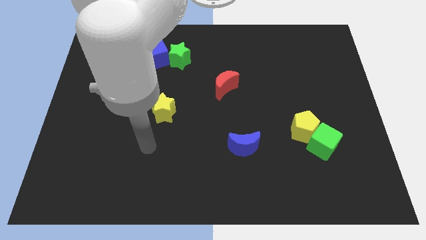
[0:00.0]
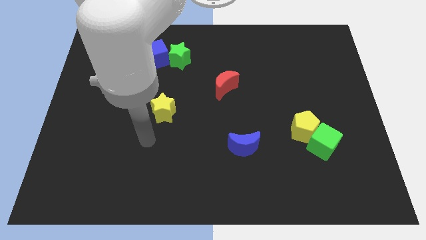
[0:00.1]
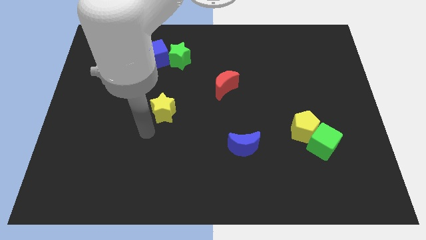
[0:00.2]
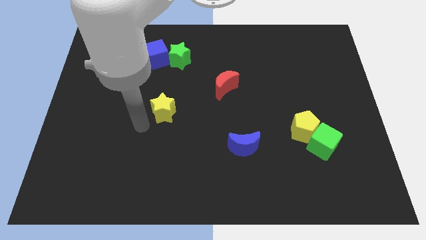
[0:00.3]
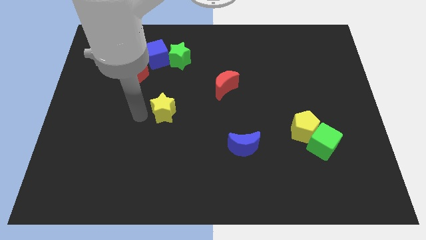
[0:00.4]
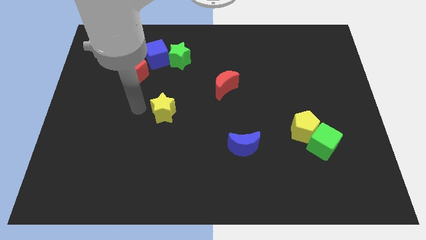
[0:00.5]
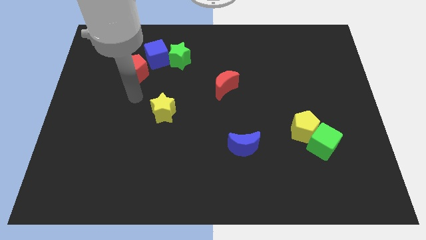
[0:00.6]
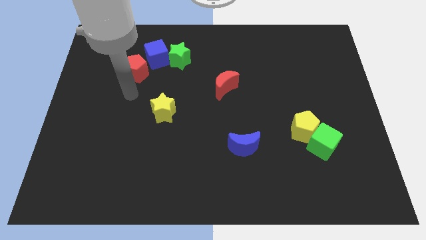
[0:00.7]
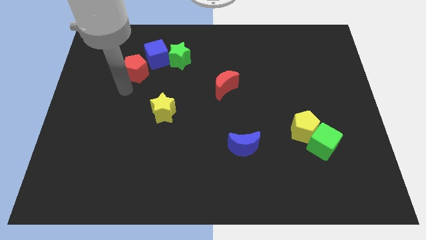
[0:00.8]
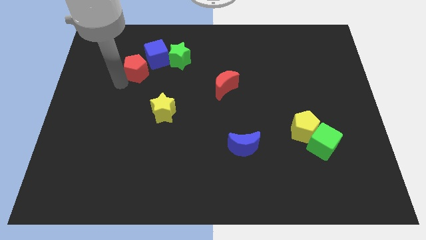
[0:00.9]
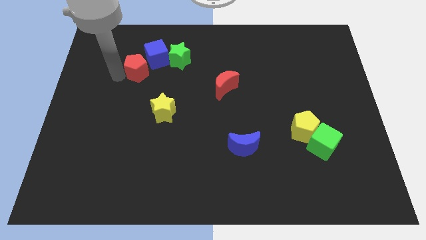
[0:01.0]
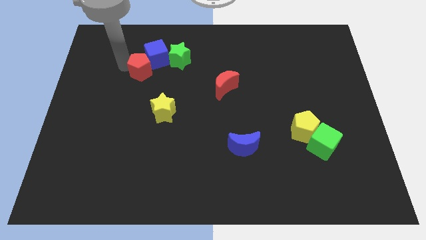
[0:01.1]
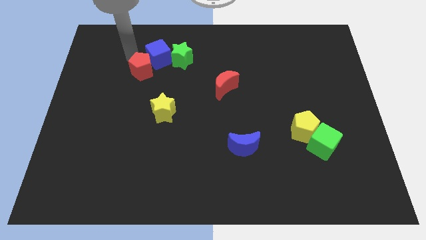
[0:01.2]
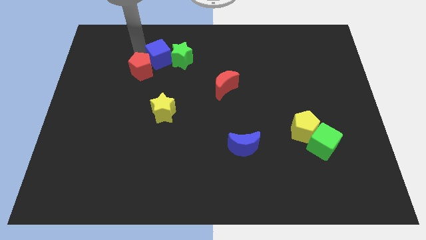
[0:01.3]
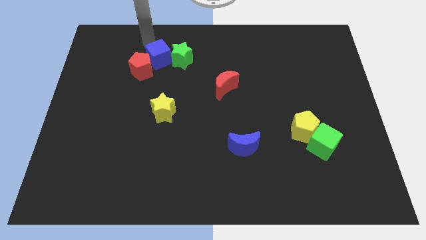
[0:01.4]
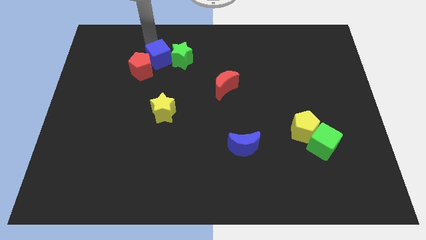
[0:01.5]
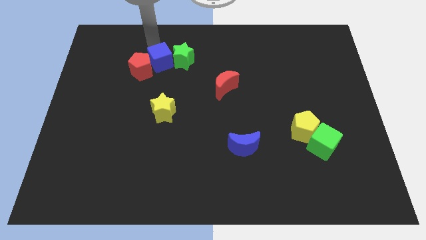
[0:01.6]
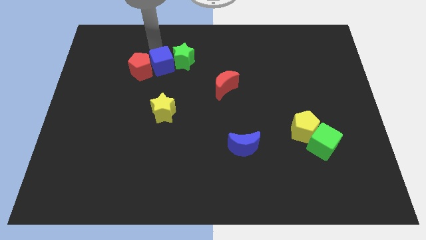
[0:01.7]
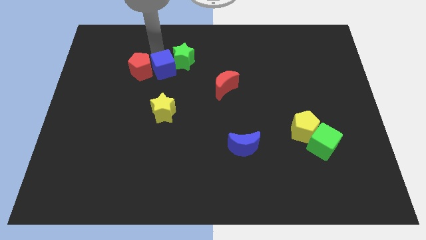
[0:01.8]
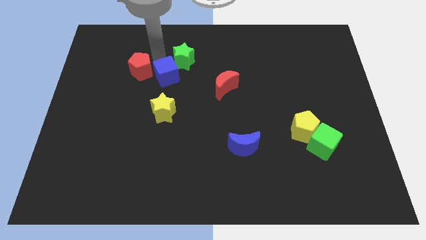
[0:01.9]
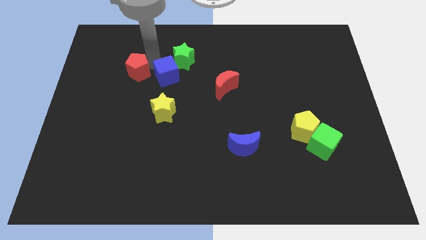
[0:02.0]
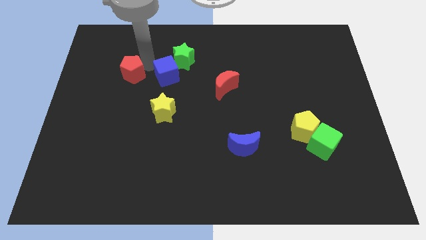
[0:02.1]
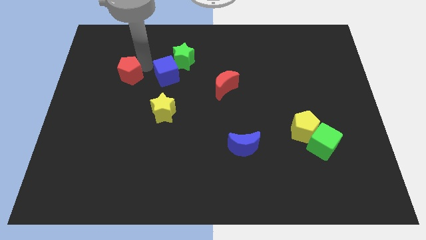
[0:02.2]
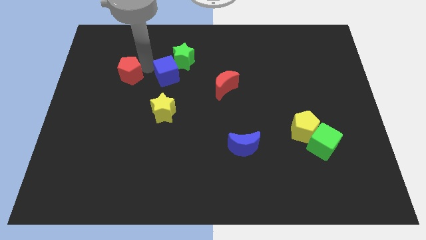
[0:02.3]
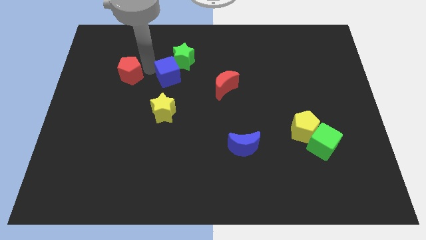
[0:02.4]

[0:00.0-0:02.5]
slightly push the blue cube diagonally downwards and to the right

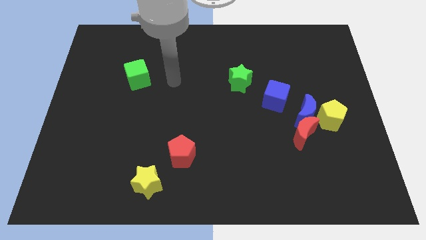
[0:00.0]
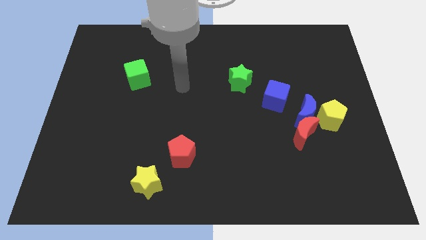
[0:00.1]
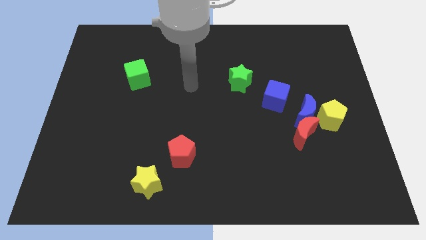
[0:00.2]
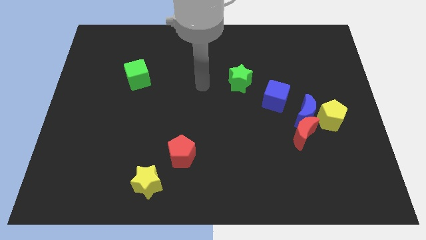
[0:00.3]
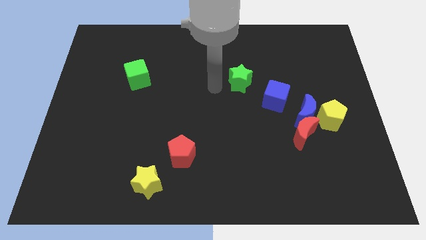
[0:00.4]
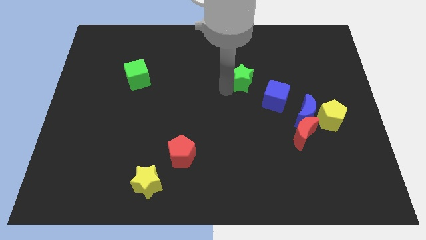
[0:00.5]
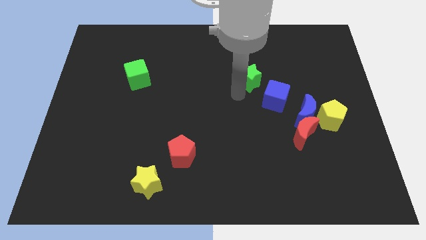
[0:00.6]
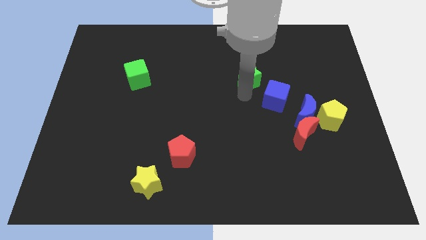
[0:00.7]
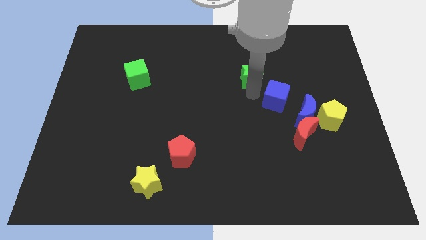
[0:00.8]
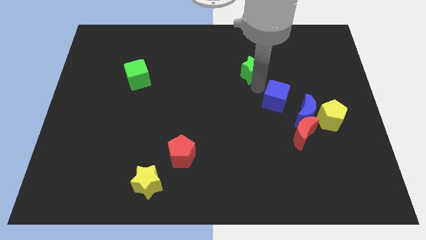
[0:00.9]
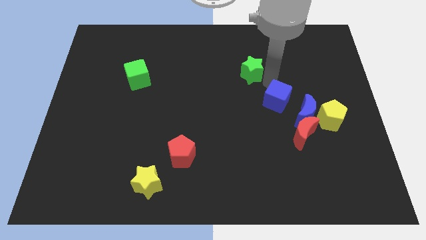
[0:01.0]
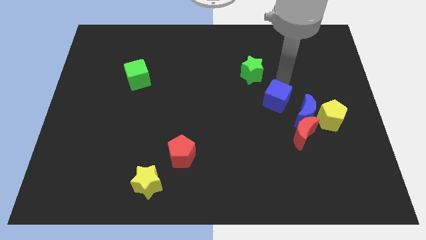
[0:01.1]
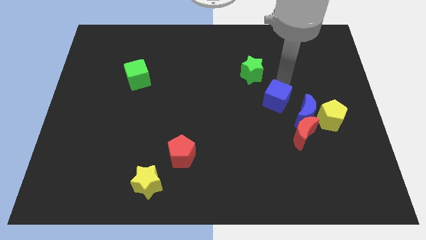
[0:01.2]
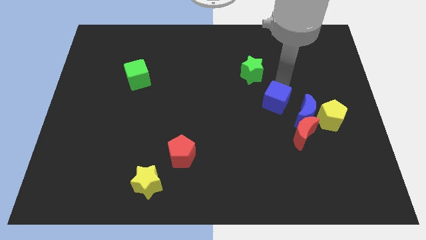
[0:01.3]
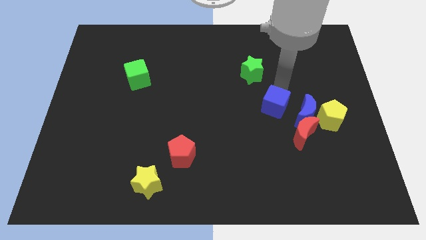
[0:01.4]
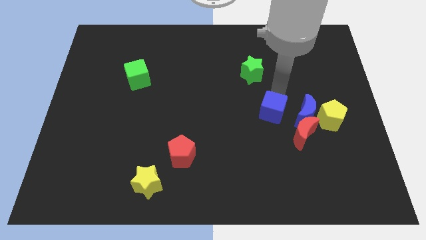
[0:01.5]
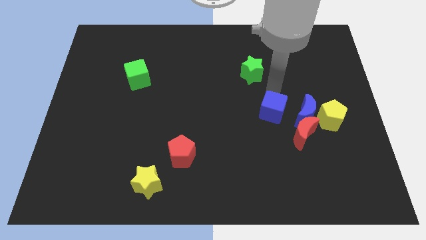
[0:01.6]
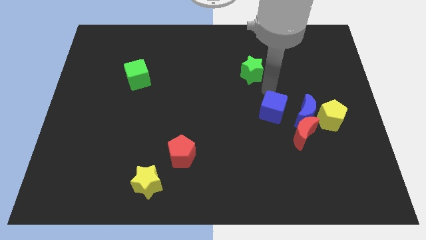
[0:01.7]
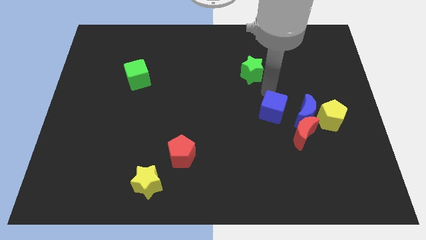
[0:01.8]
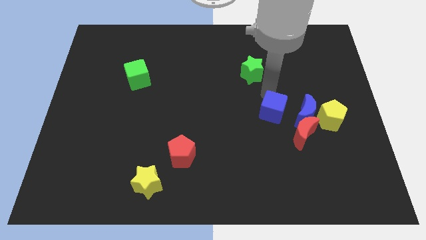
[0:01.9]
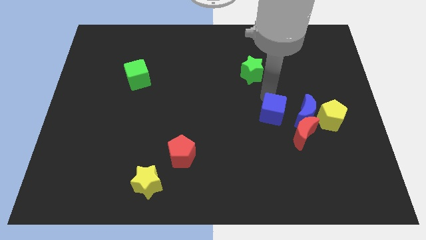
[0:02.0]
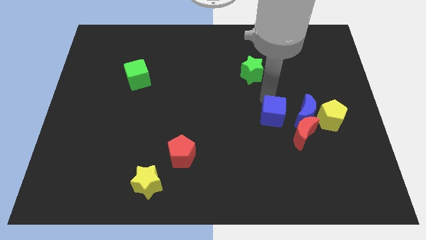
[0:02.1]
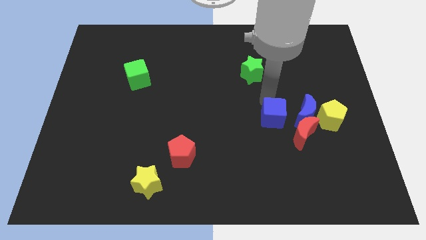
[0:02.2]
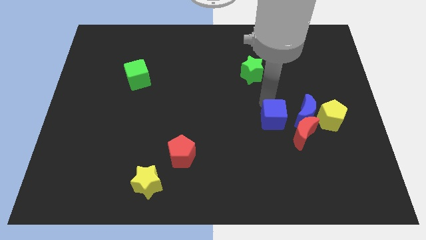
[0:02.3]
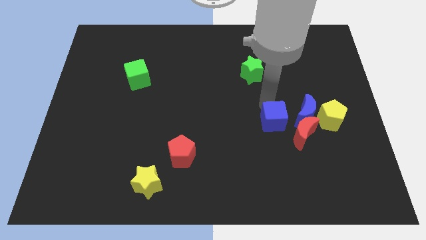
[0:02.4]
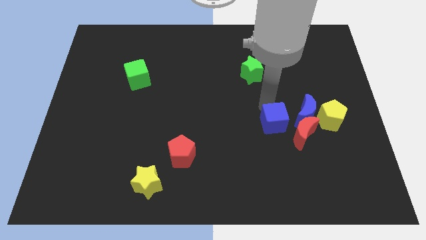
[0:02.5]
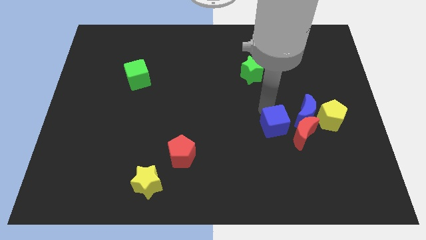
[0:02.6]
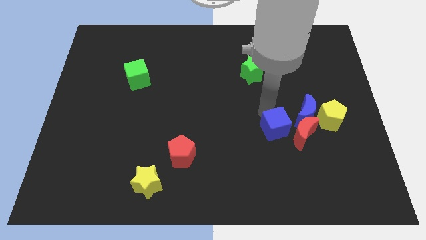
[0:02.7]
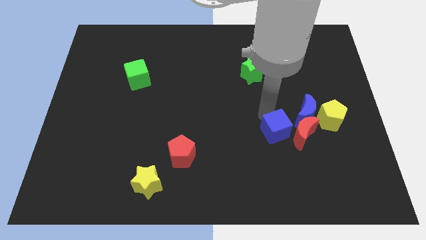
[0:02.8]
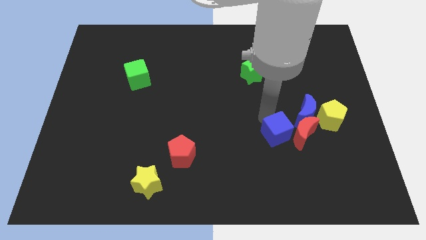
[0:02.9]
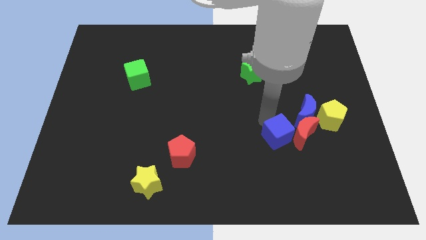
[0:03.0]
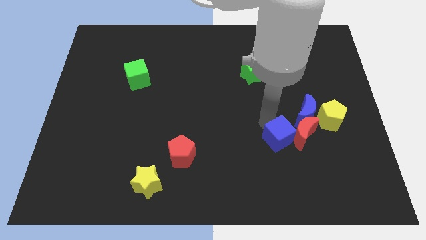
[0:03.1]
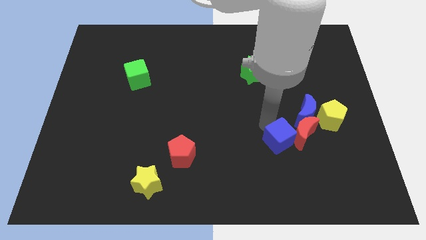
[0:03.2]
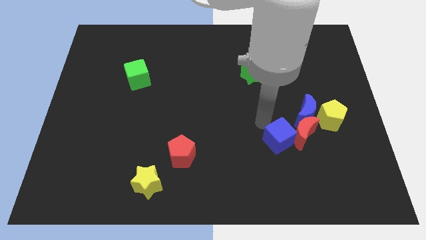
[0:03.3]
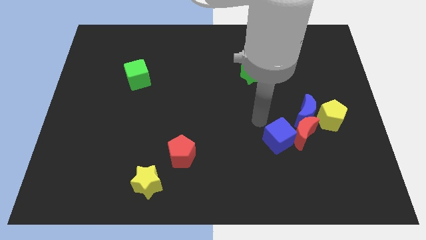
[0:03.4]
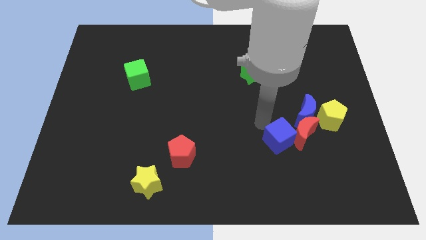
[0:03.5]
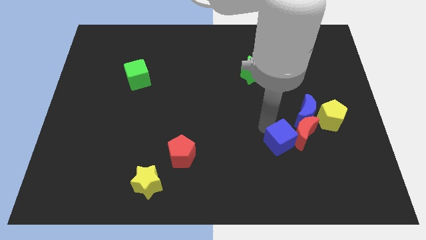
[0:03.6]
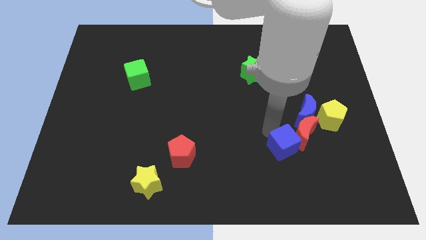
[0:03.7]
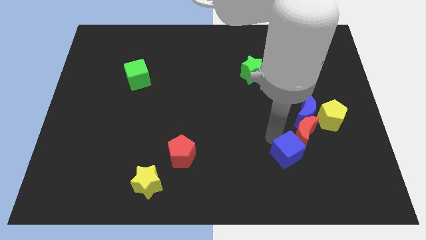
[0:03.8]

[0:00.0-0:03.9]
slide the blue cube a little bit diagonally down and to the right

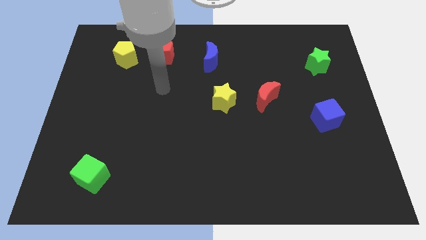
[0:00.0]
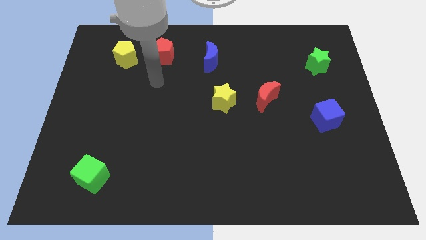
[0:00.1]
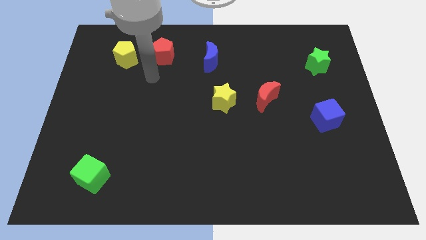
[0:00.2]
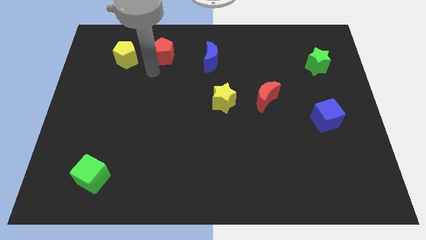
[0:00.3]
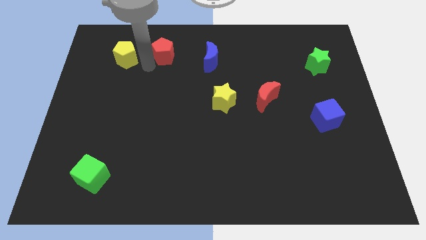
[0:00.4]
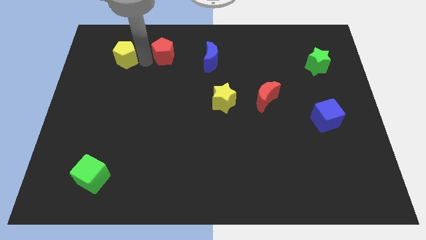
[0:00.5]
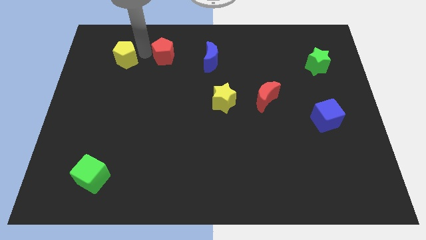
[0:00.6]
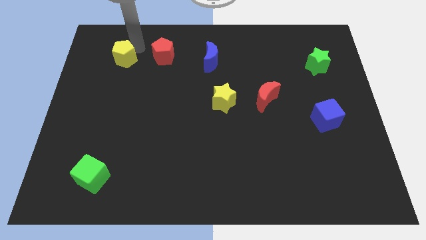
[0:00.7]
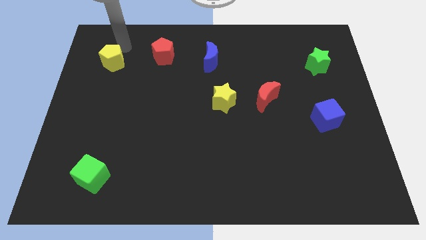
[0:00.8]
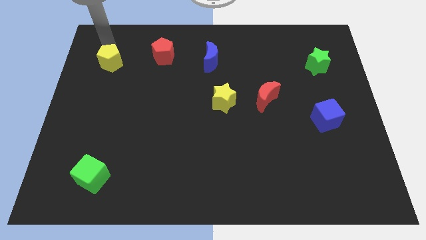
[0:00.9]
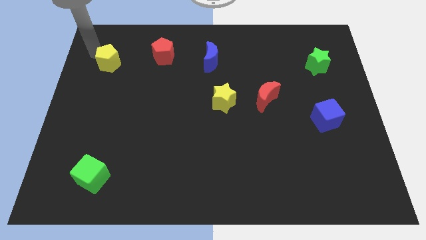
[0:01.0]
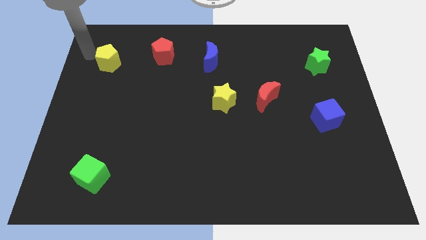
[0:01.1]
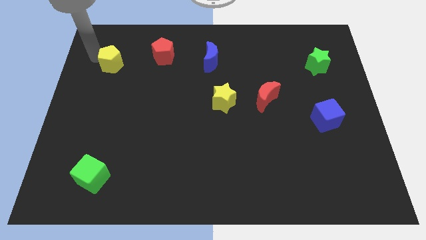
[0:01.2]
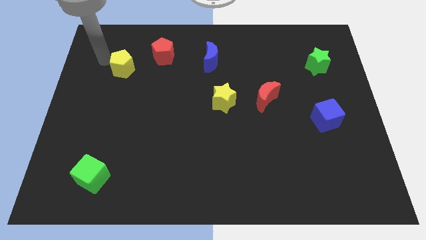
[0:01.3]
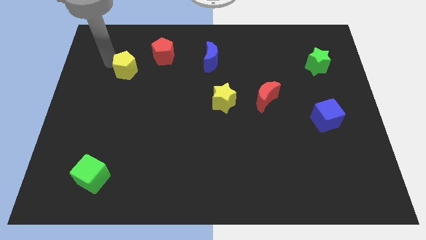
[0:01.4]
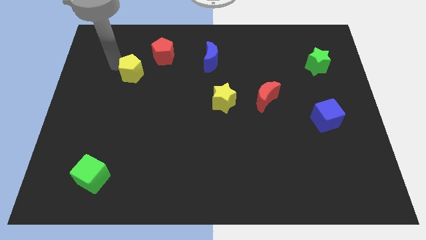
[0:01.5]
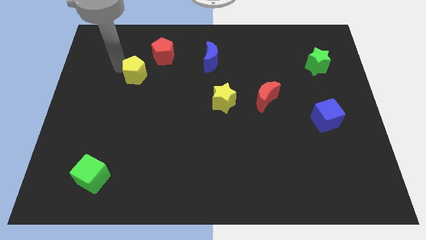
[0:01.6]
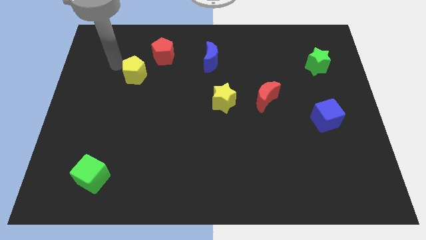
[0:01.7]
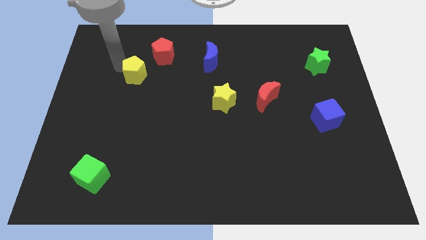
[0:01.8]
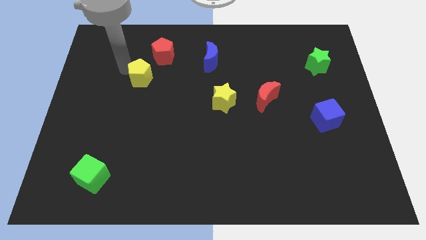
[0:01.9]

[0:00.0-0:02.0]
slide the yellow pentagon a little diagonally down and right
